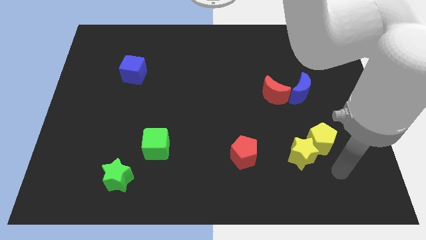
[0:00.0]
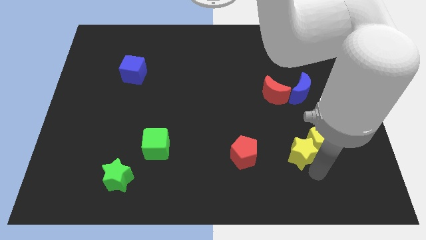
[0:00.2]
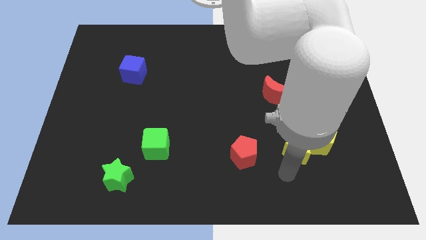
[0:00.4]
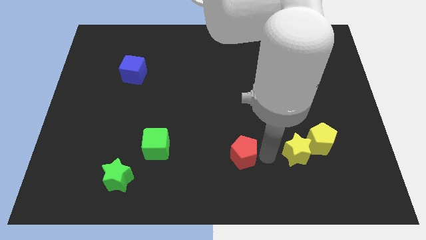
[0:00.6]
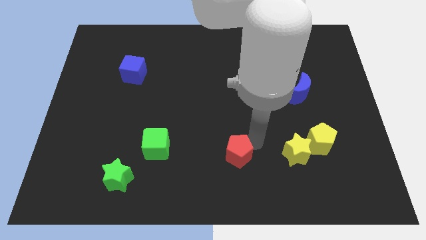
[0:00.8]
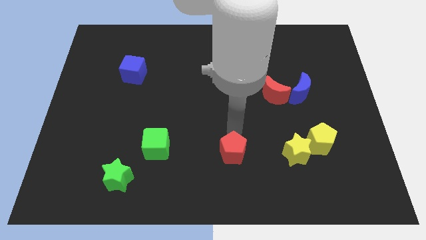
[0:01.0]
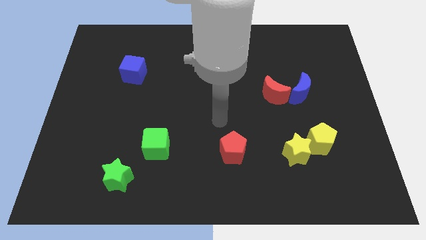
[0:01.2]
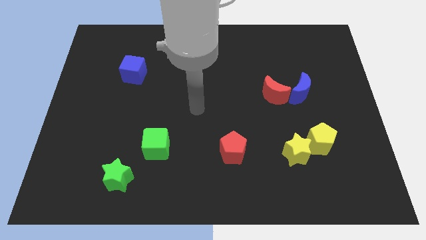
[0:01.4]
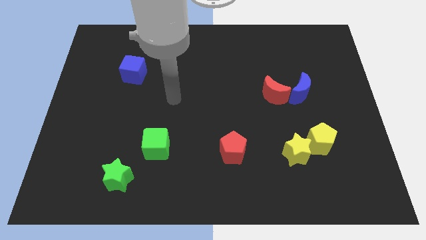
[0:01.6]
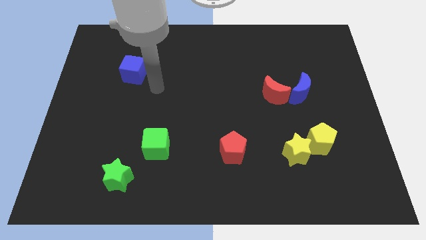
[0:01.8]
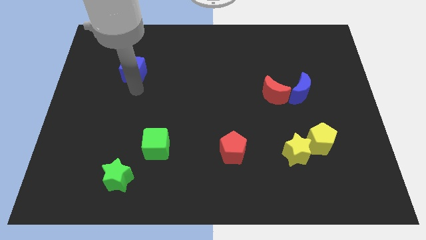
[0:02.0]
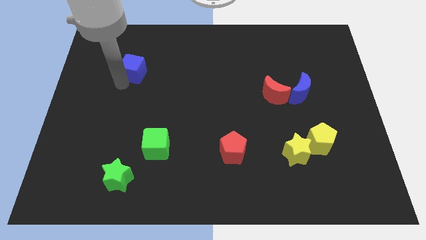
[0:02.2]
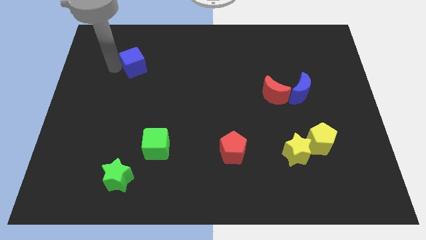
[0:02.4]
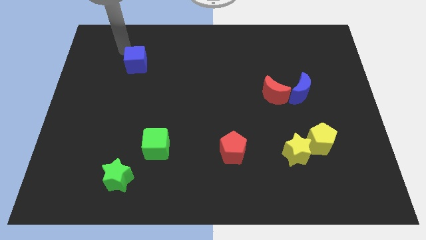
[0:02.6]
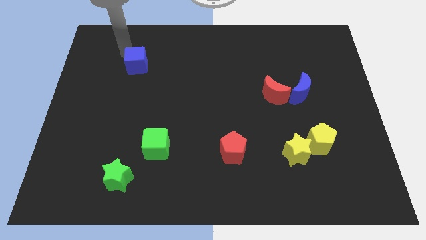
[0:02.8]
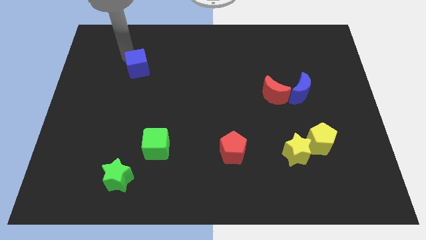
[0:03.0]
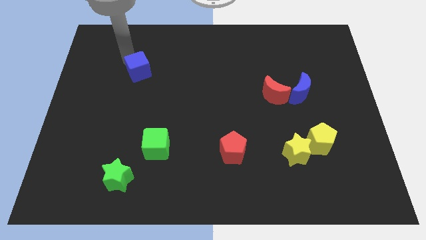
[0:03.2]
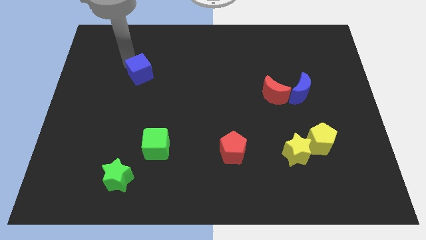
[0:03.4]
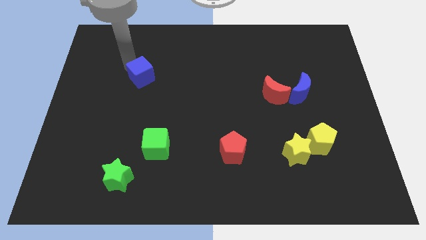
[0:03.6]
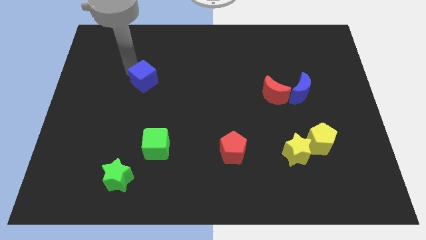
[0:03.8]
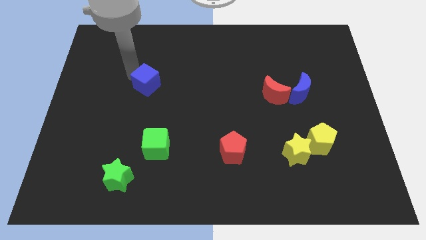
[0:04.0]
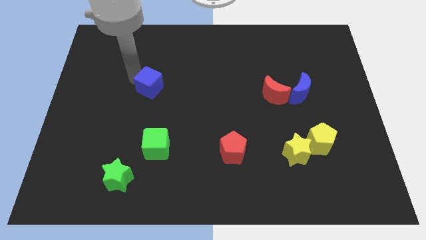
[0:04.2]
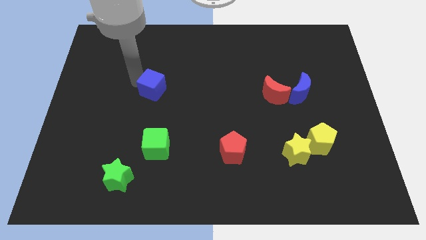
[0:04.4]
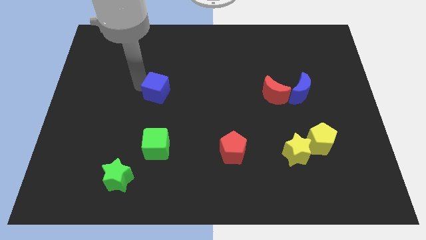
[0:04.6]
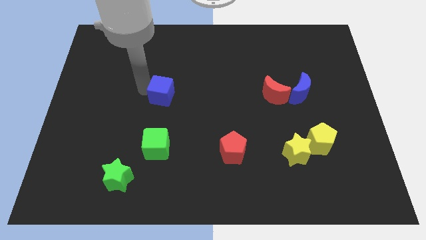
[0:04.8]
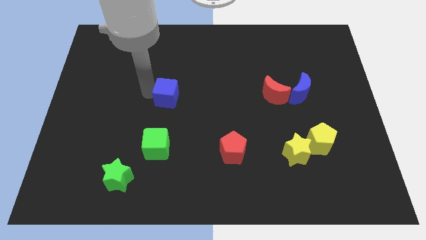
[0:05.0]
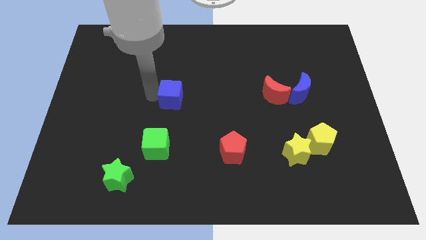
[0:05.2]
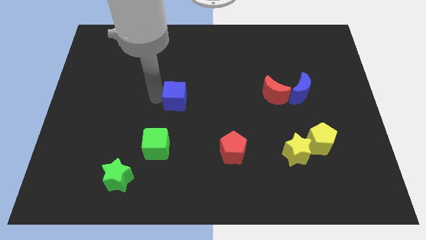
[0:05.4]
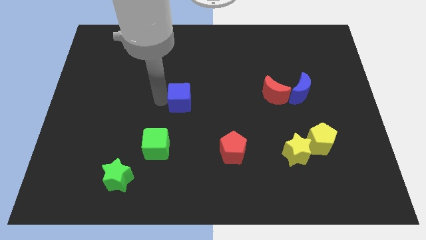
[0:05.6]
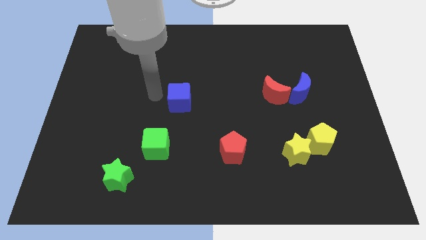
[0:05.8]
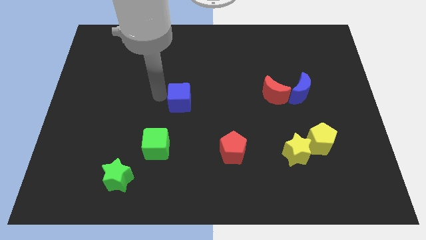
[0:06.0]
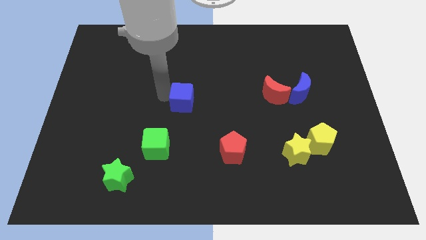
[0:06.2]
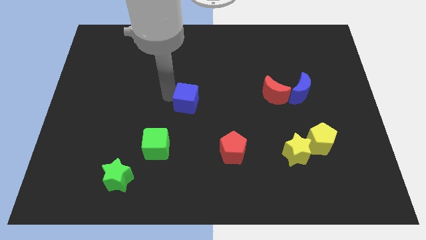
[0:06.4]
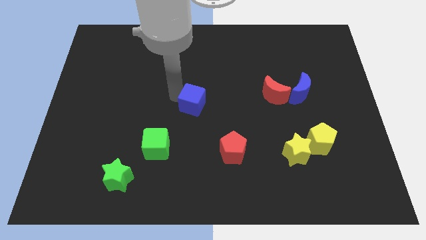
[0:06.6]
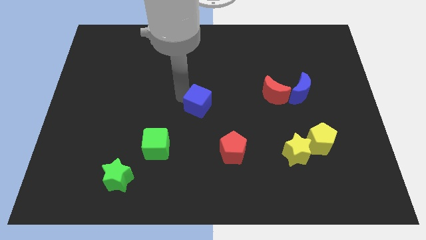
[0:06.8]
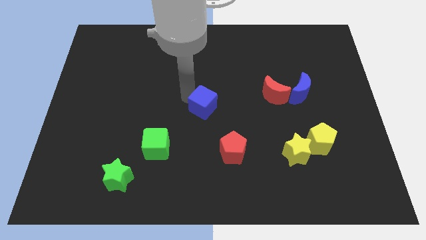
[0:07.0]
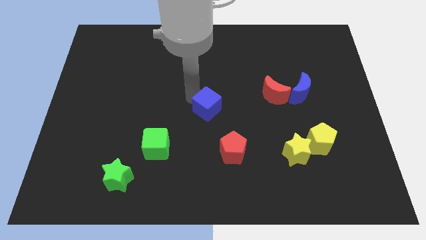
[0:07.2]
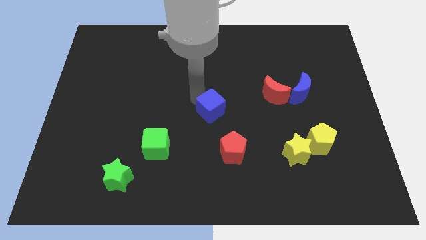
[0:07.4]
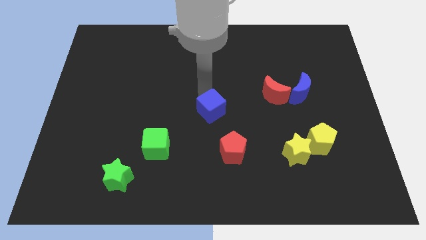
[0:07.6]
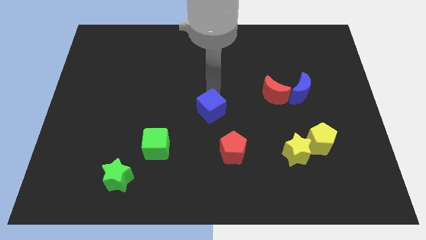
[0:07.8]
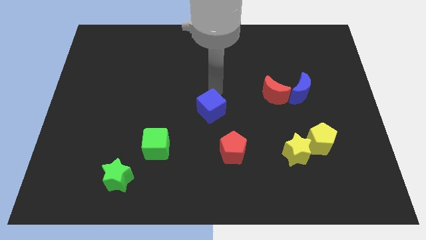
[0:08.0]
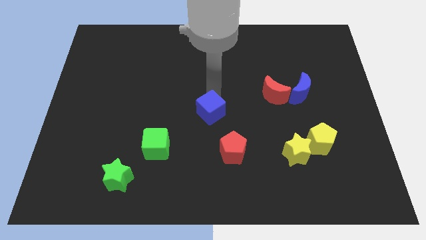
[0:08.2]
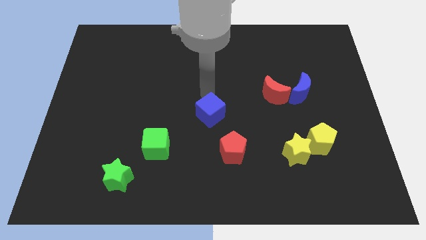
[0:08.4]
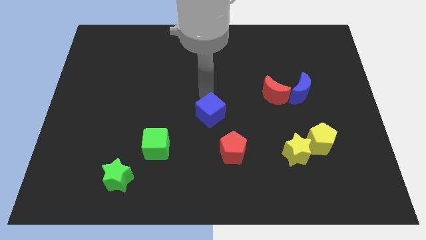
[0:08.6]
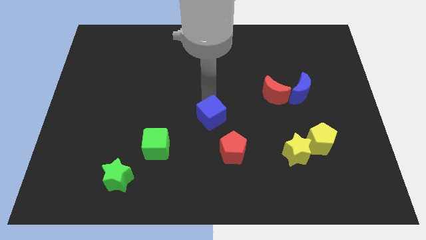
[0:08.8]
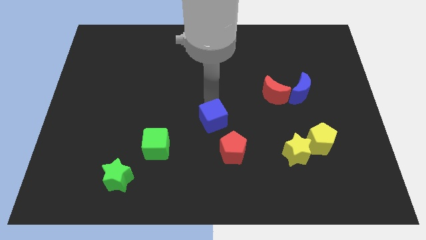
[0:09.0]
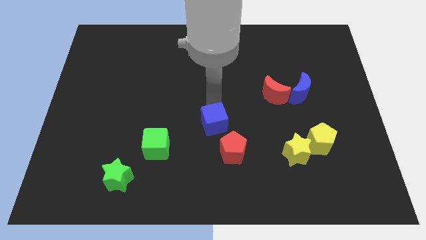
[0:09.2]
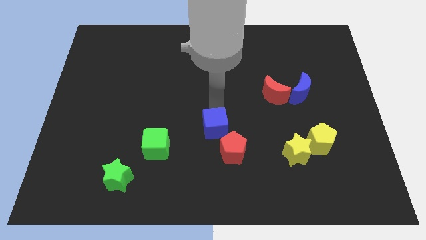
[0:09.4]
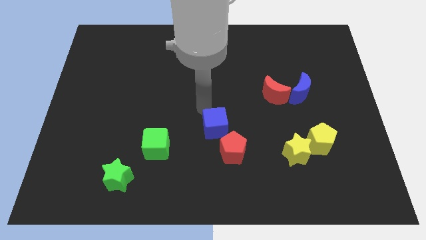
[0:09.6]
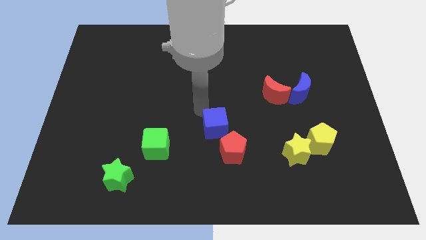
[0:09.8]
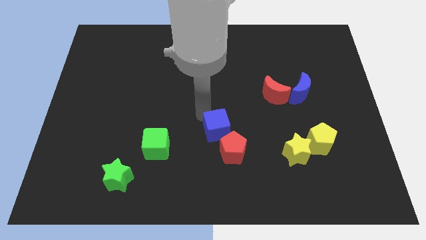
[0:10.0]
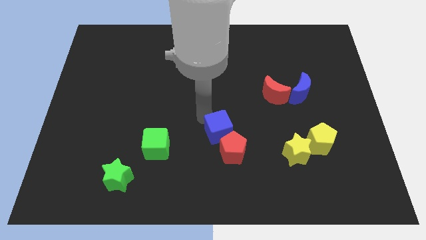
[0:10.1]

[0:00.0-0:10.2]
slide the blue cube to the red pentagon

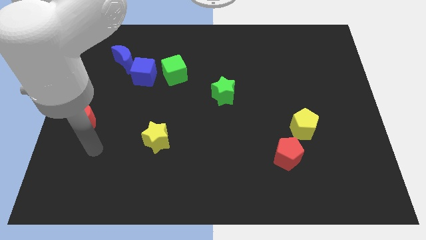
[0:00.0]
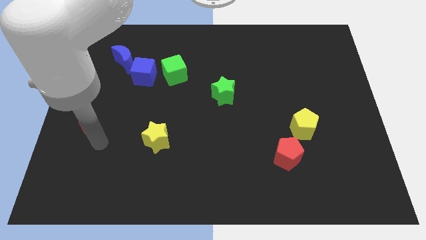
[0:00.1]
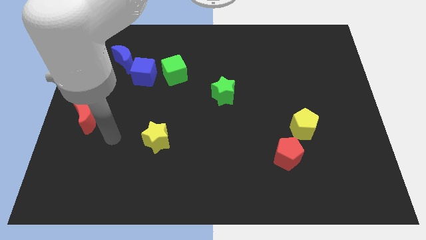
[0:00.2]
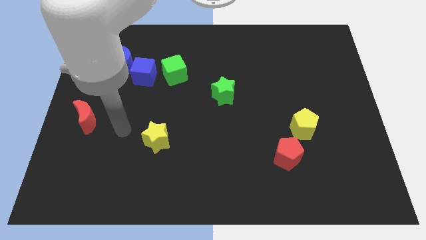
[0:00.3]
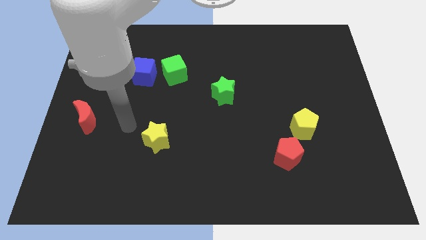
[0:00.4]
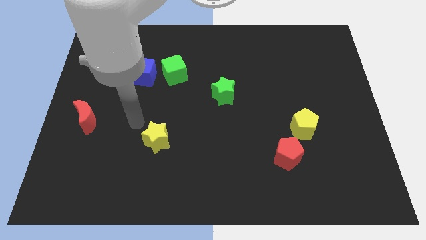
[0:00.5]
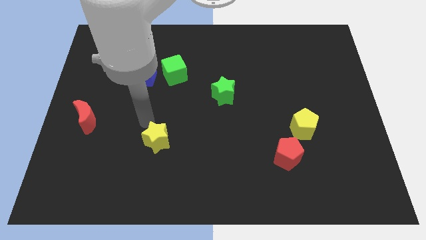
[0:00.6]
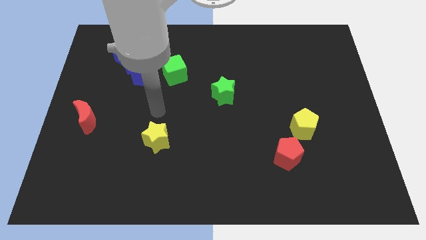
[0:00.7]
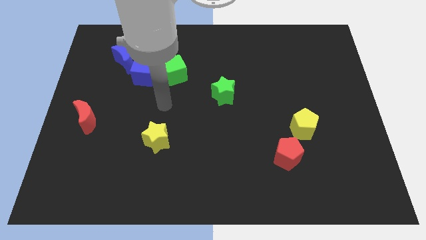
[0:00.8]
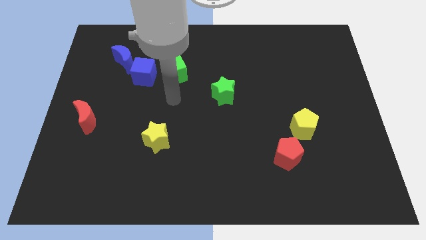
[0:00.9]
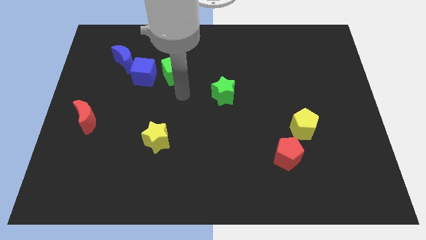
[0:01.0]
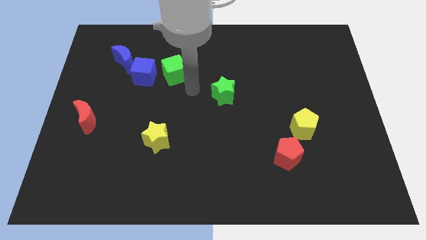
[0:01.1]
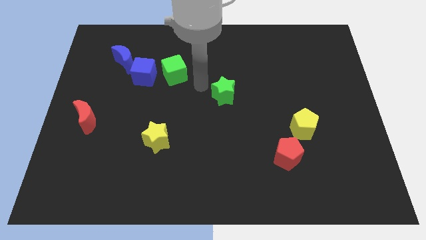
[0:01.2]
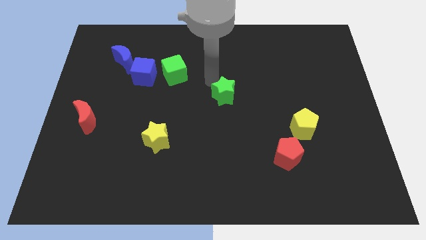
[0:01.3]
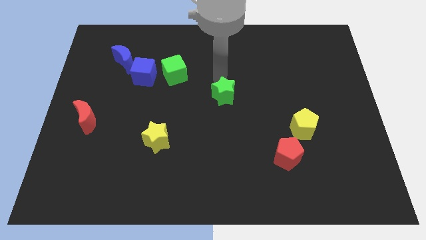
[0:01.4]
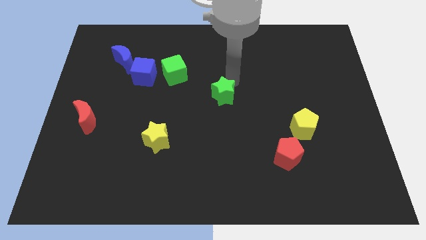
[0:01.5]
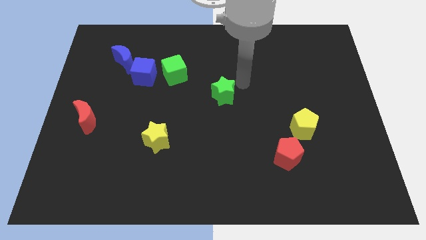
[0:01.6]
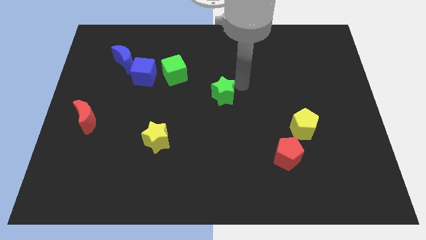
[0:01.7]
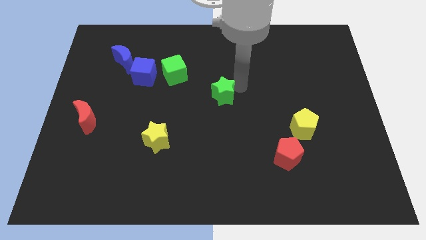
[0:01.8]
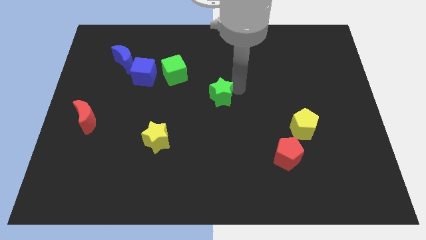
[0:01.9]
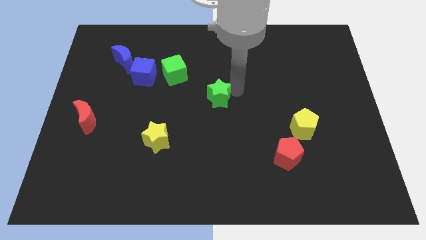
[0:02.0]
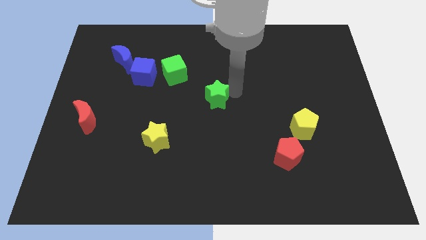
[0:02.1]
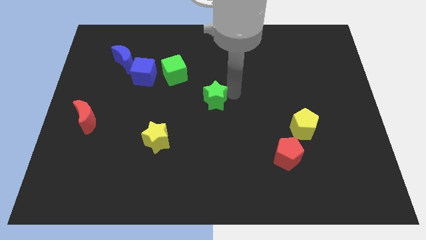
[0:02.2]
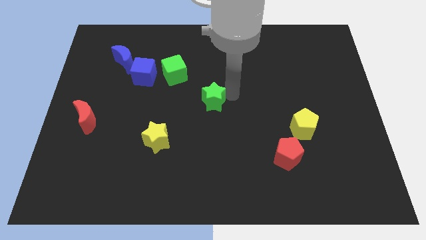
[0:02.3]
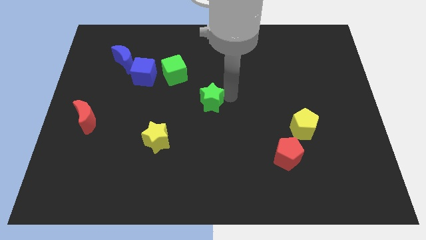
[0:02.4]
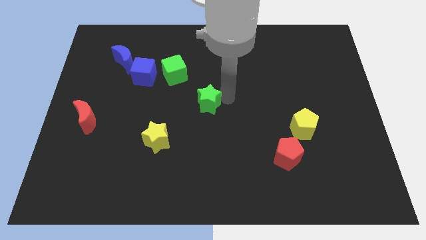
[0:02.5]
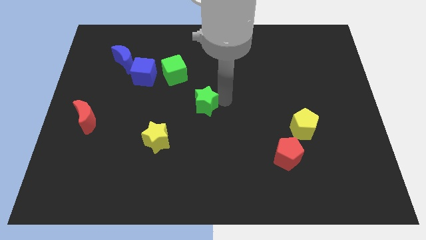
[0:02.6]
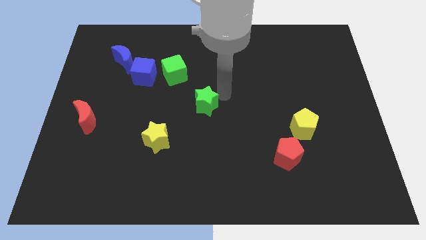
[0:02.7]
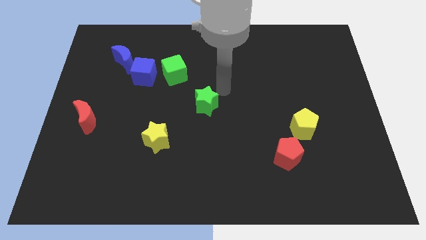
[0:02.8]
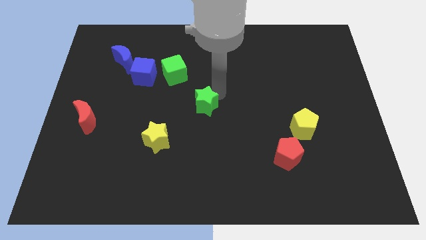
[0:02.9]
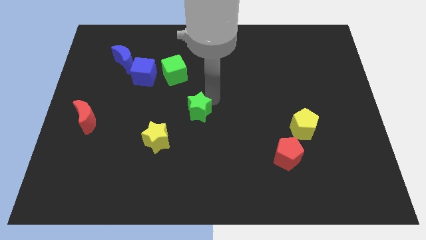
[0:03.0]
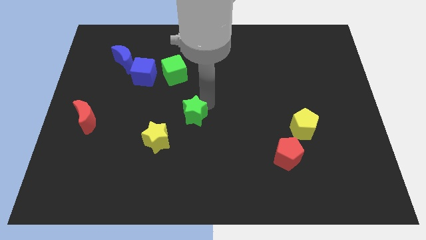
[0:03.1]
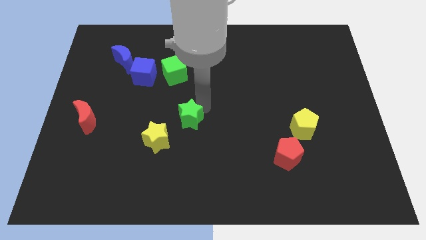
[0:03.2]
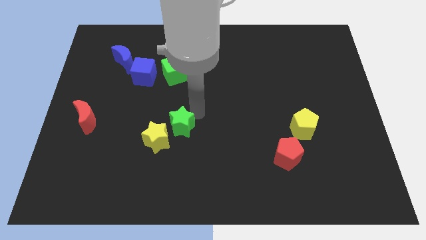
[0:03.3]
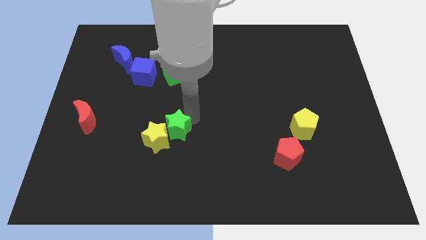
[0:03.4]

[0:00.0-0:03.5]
move the green star next to the yellow star
